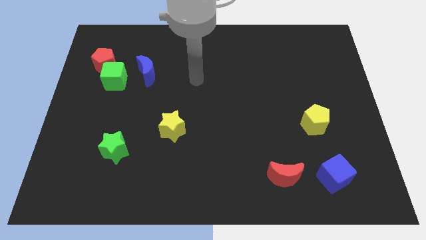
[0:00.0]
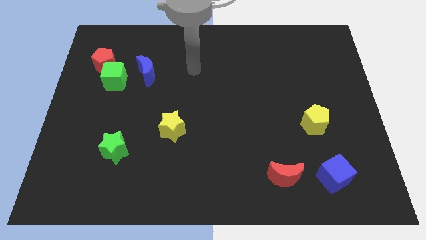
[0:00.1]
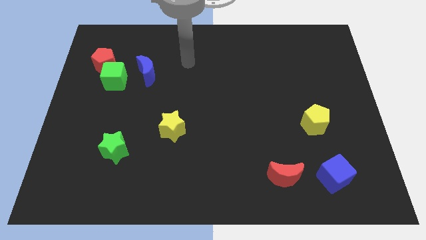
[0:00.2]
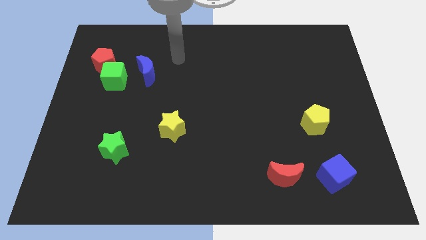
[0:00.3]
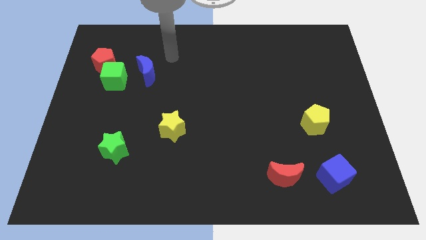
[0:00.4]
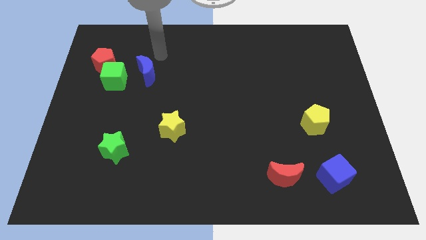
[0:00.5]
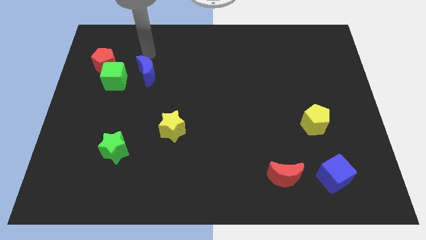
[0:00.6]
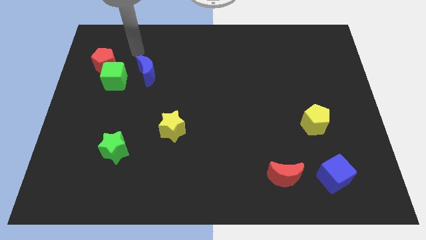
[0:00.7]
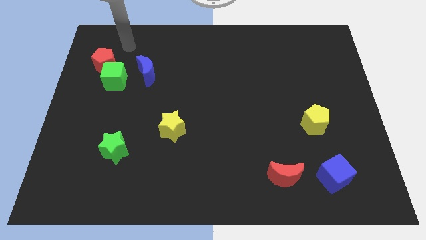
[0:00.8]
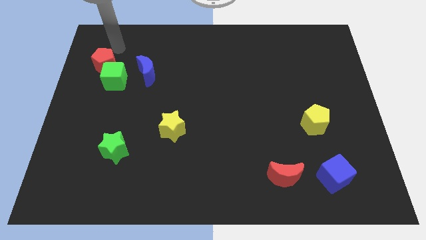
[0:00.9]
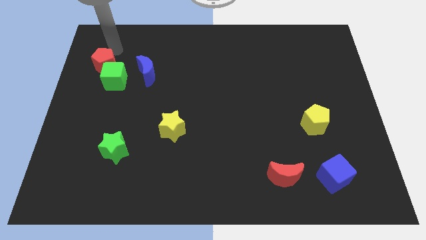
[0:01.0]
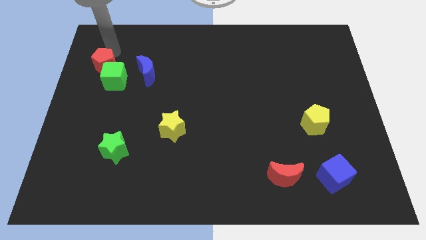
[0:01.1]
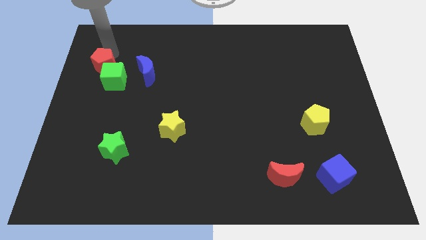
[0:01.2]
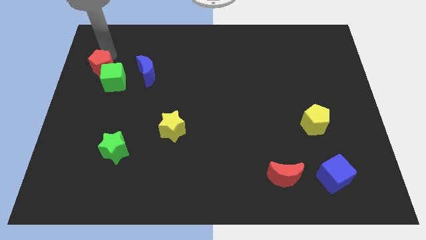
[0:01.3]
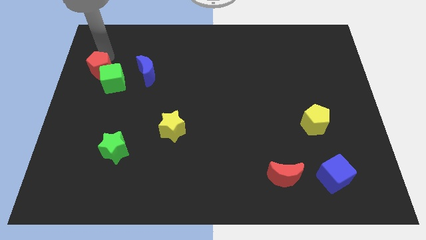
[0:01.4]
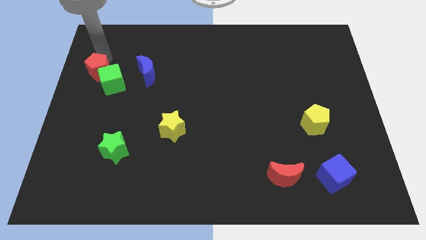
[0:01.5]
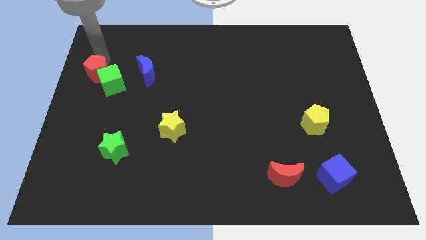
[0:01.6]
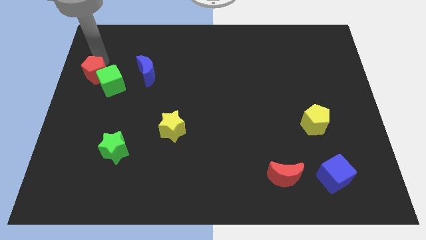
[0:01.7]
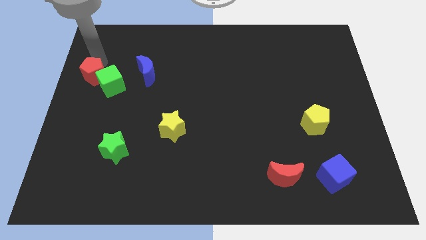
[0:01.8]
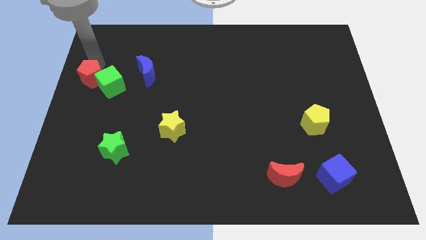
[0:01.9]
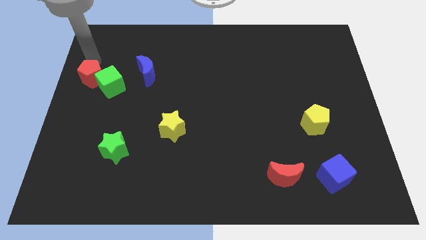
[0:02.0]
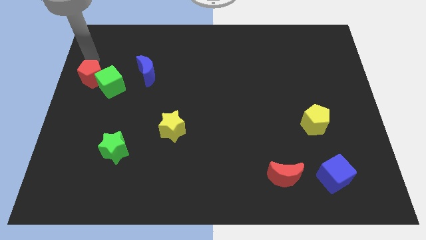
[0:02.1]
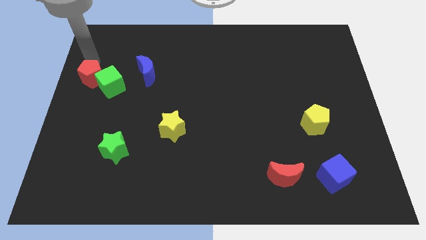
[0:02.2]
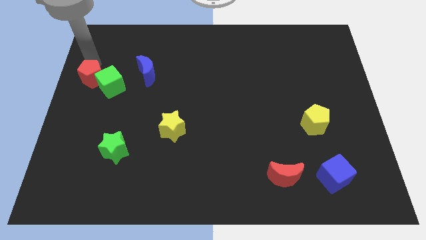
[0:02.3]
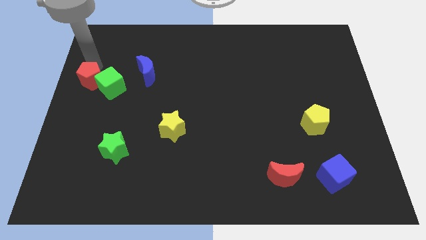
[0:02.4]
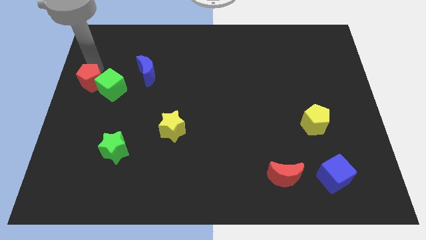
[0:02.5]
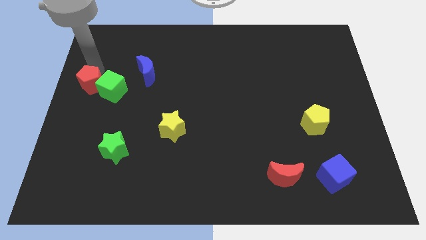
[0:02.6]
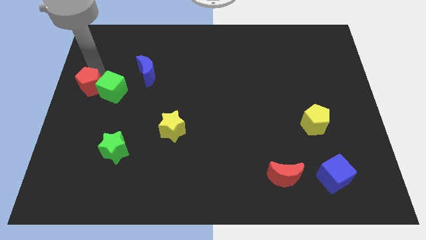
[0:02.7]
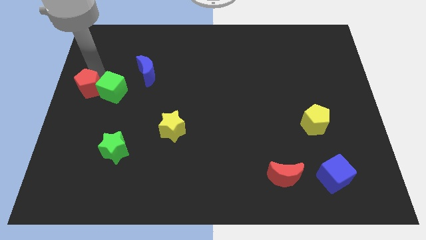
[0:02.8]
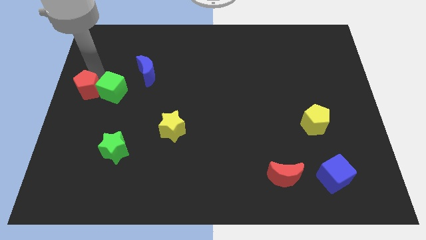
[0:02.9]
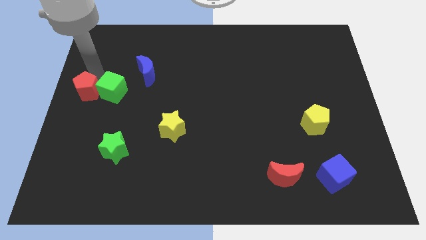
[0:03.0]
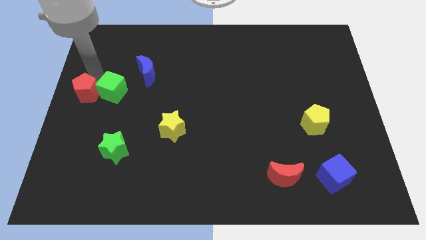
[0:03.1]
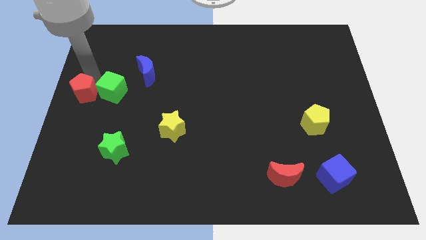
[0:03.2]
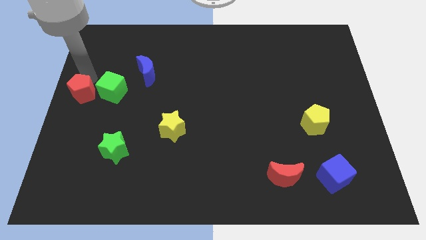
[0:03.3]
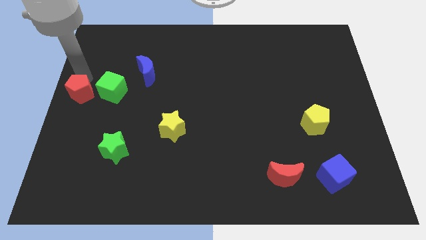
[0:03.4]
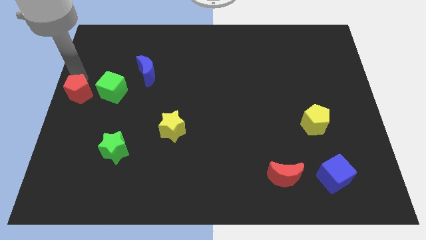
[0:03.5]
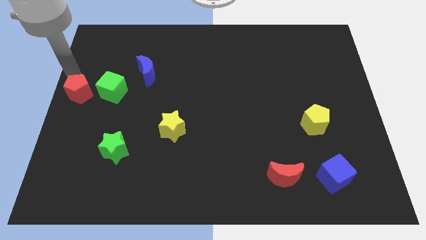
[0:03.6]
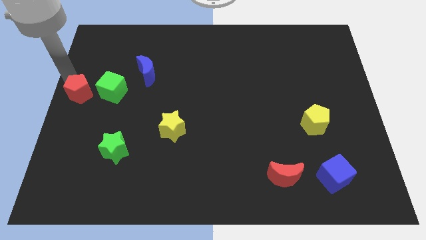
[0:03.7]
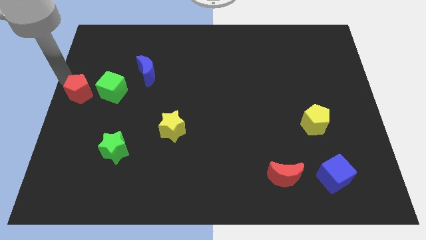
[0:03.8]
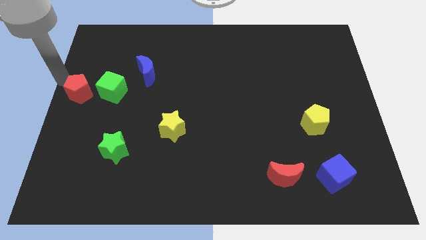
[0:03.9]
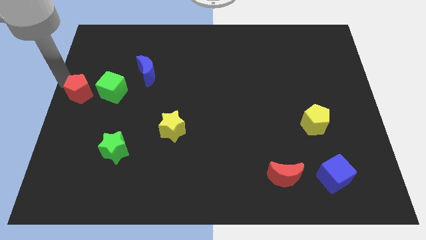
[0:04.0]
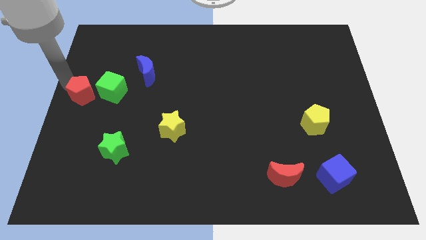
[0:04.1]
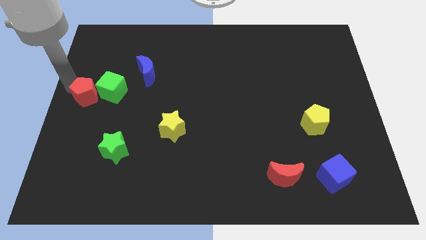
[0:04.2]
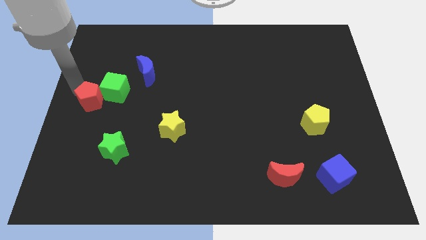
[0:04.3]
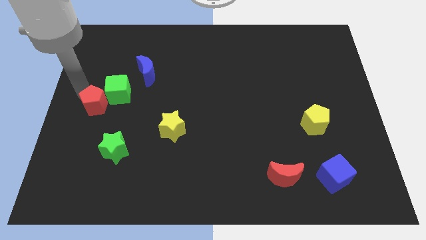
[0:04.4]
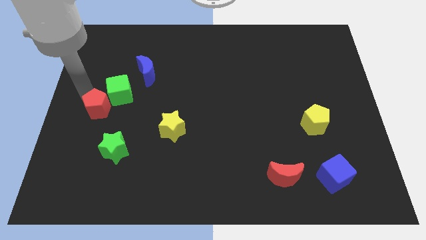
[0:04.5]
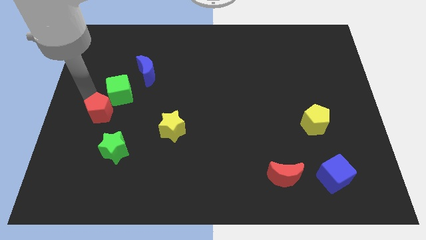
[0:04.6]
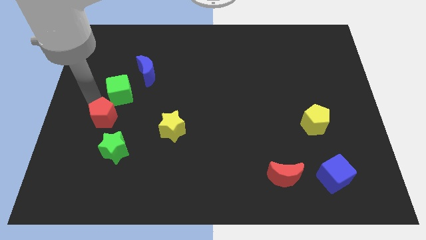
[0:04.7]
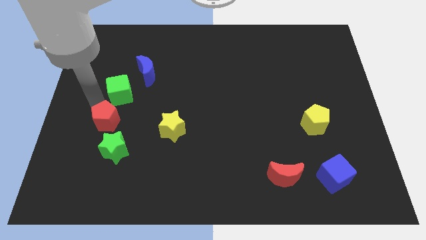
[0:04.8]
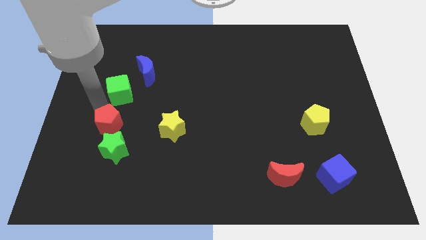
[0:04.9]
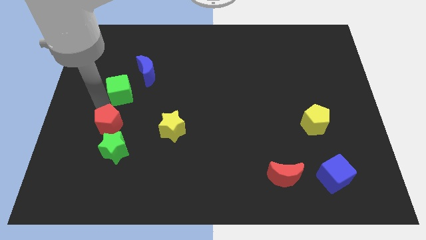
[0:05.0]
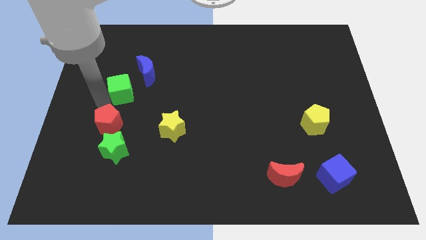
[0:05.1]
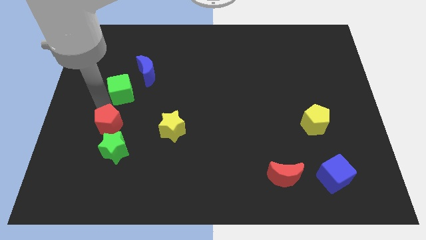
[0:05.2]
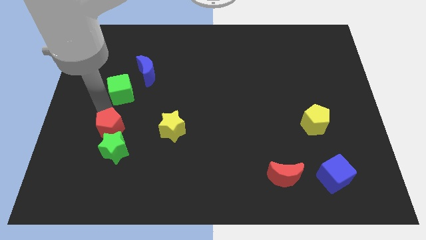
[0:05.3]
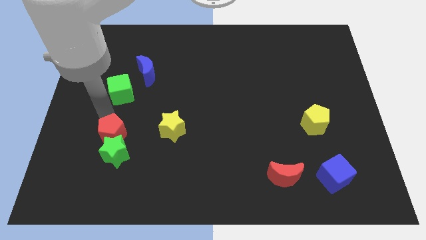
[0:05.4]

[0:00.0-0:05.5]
slide the red pentagon towards the green star
